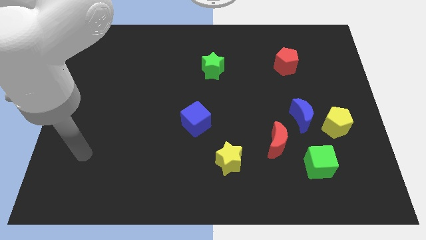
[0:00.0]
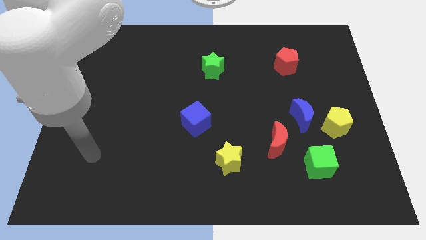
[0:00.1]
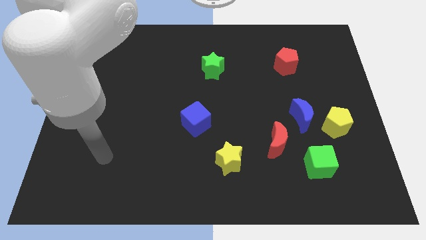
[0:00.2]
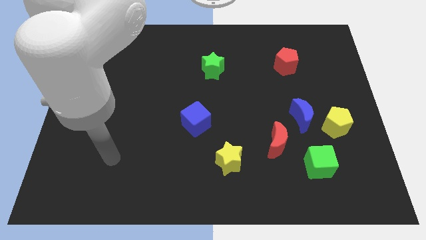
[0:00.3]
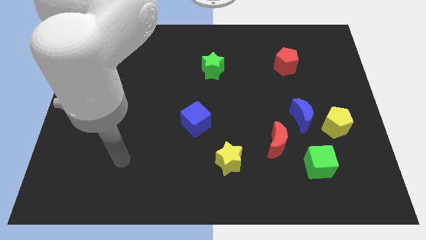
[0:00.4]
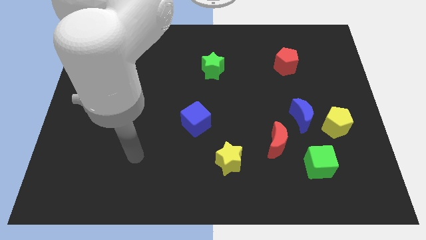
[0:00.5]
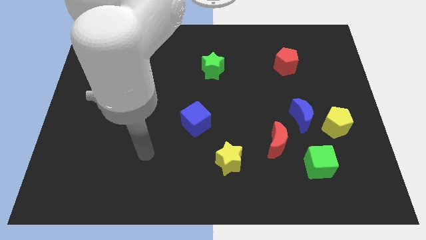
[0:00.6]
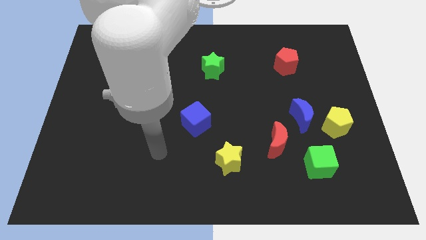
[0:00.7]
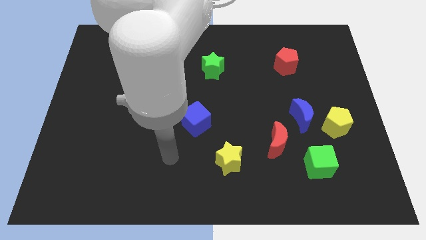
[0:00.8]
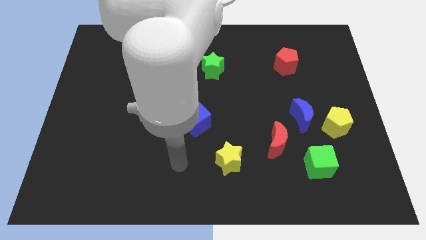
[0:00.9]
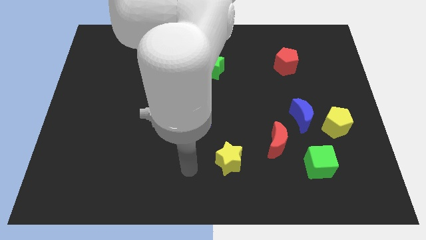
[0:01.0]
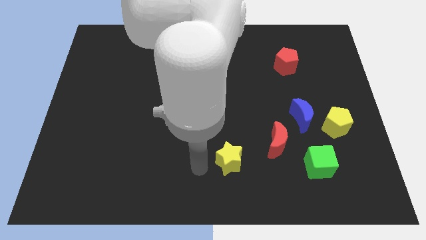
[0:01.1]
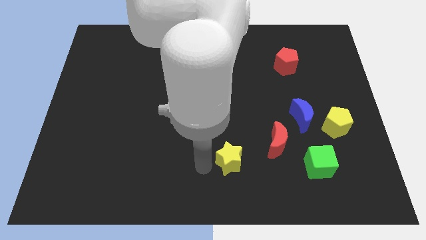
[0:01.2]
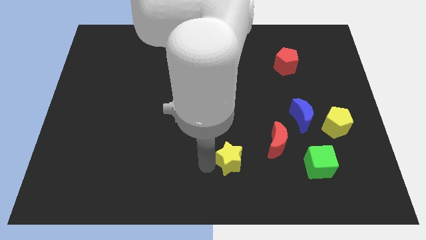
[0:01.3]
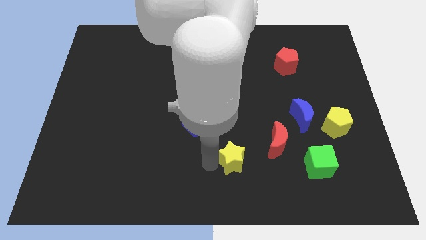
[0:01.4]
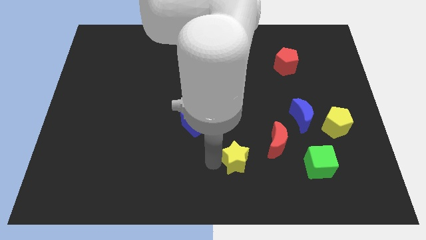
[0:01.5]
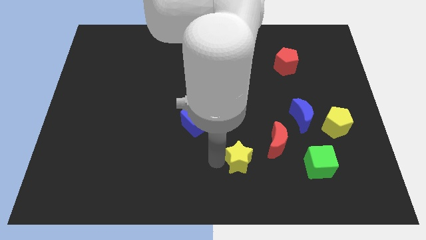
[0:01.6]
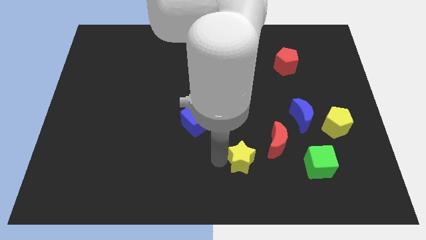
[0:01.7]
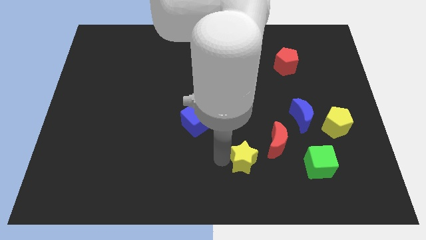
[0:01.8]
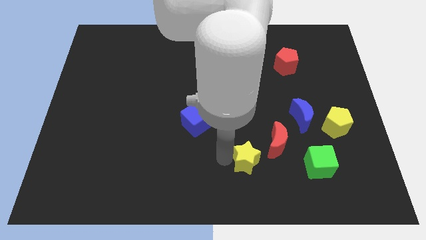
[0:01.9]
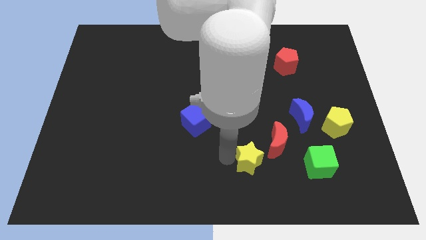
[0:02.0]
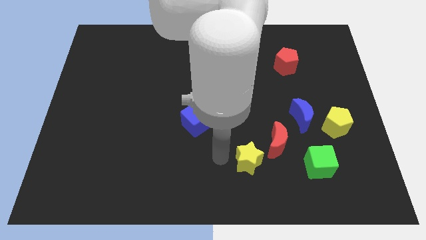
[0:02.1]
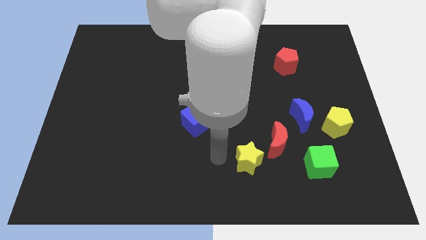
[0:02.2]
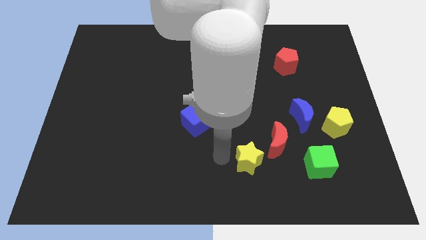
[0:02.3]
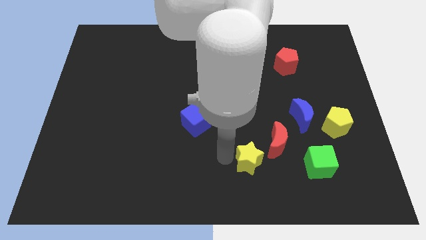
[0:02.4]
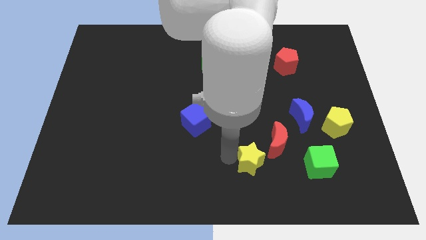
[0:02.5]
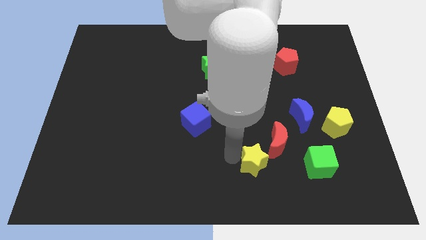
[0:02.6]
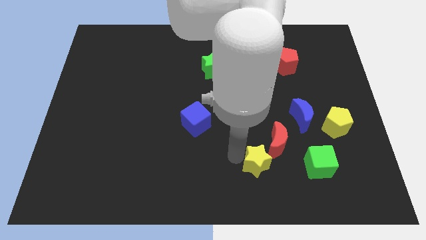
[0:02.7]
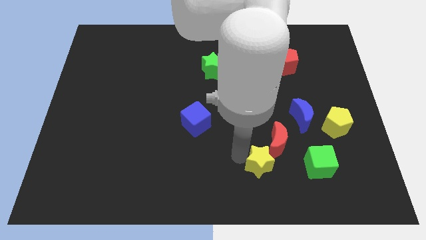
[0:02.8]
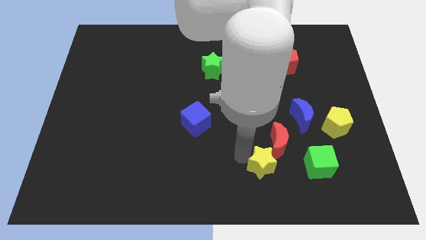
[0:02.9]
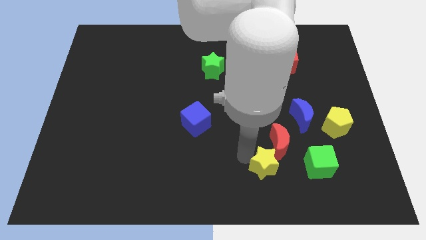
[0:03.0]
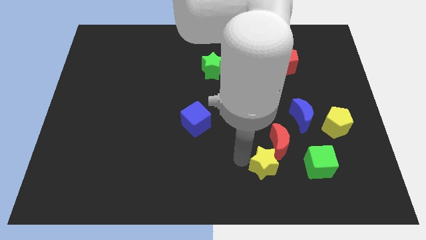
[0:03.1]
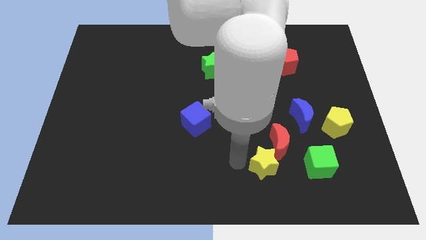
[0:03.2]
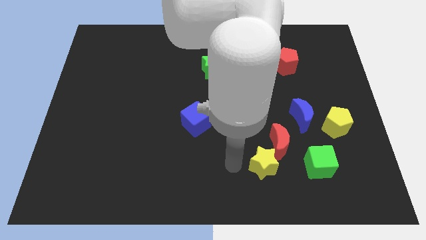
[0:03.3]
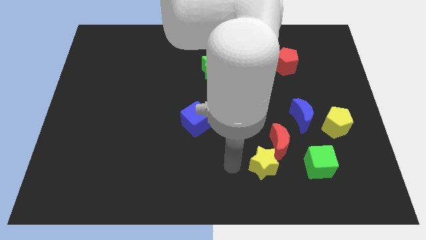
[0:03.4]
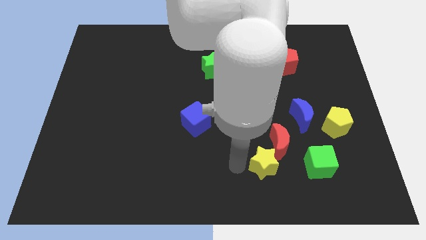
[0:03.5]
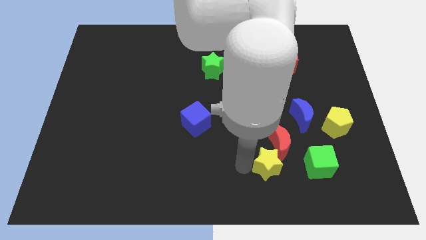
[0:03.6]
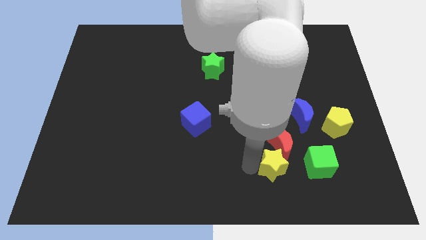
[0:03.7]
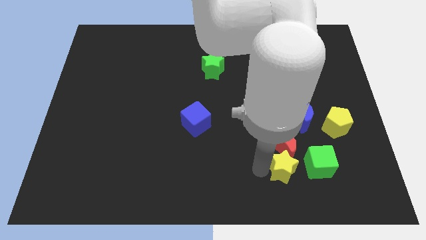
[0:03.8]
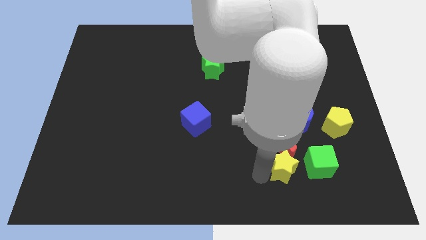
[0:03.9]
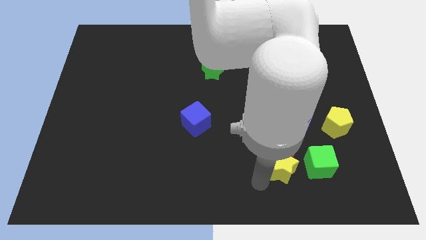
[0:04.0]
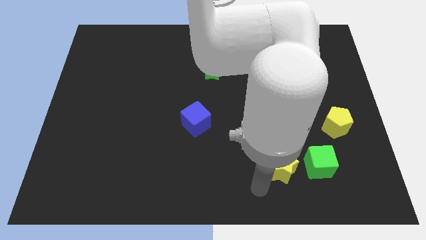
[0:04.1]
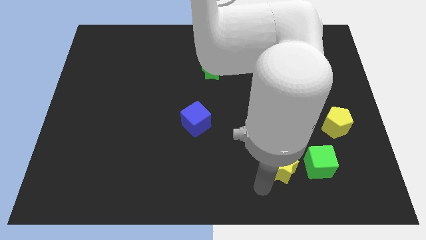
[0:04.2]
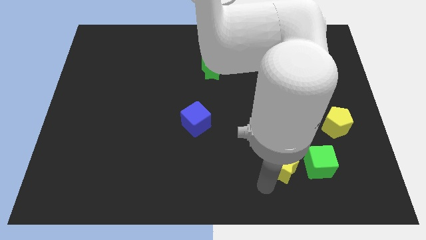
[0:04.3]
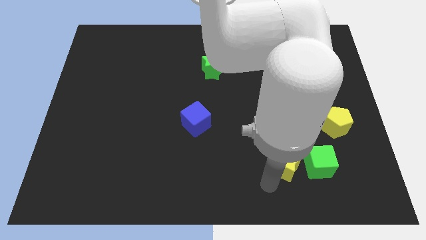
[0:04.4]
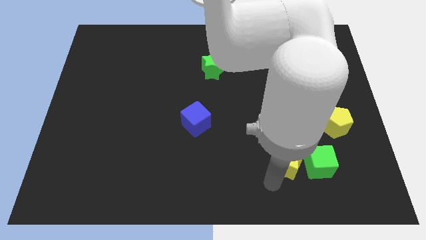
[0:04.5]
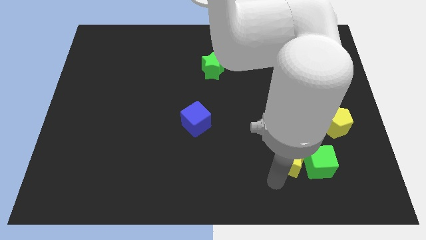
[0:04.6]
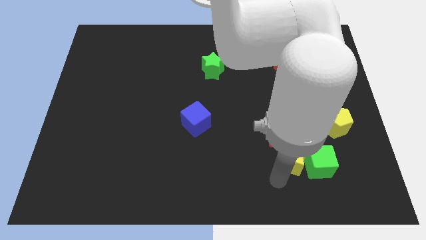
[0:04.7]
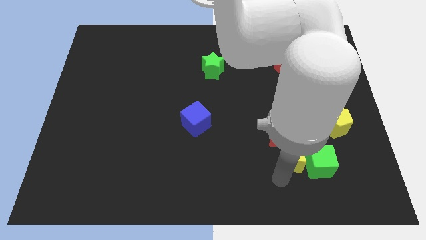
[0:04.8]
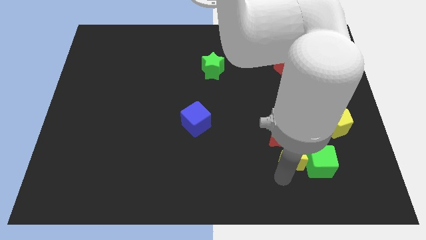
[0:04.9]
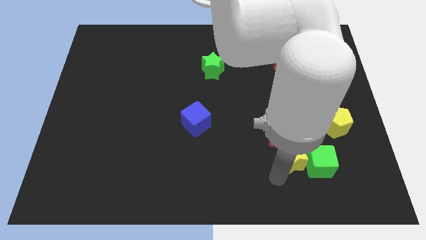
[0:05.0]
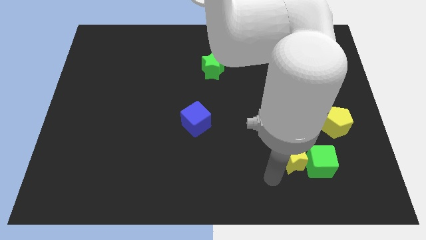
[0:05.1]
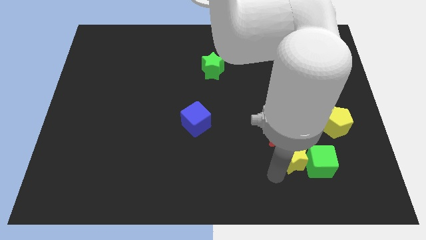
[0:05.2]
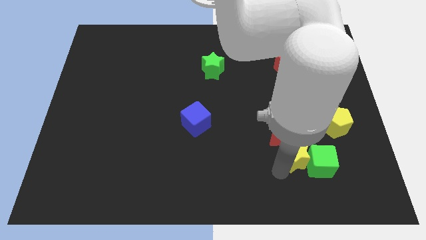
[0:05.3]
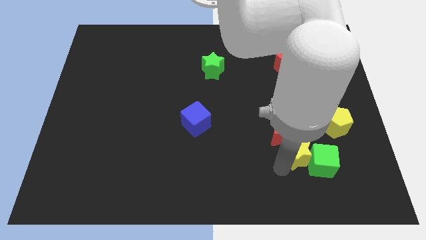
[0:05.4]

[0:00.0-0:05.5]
push the yellow star diagonally down and to the left of the yellow pentagon

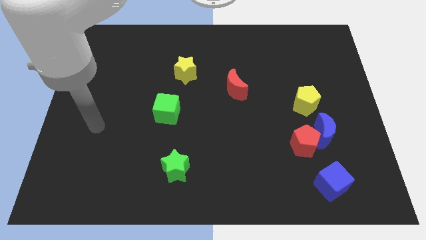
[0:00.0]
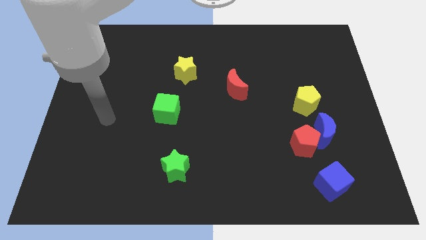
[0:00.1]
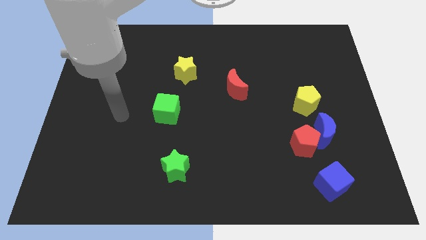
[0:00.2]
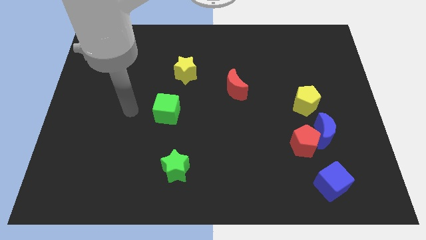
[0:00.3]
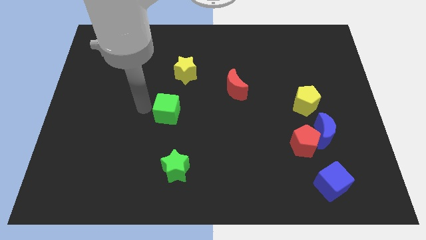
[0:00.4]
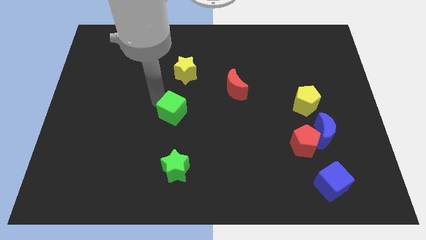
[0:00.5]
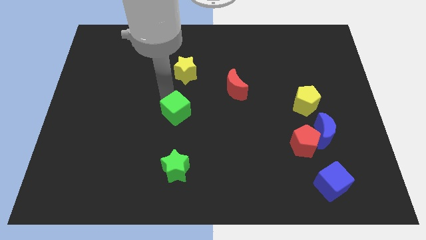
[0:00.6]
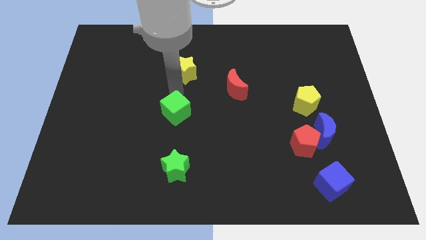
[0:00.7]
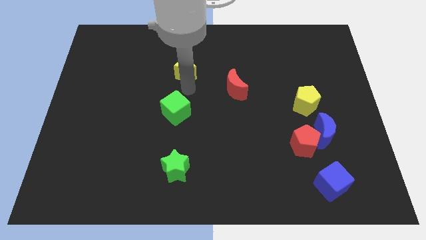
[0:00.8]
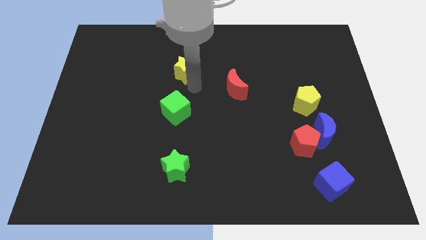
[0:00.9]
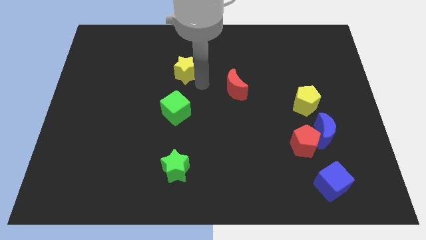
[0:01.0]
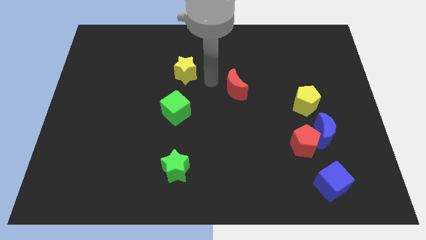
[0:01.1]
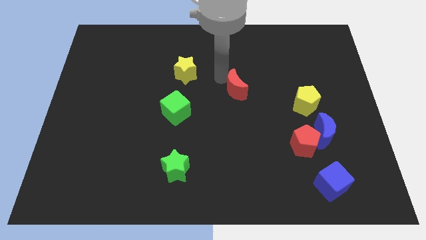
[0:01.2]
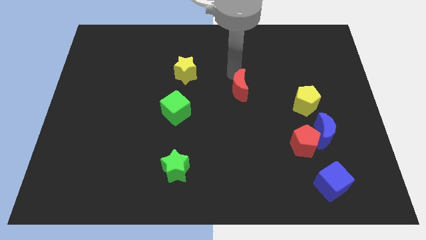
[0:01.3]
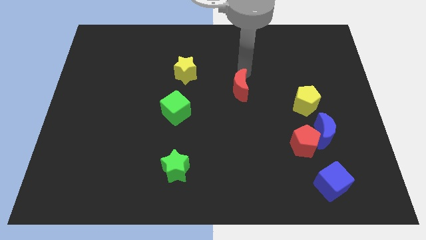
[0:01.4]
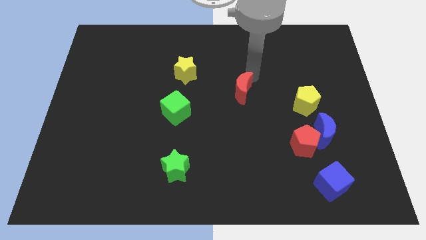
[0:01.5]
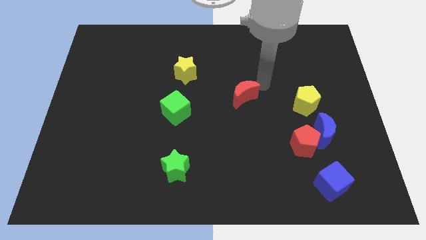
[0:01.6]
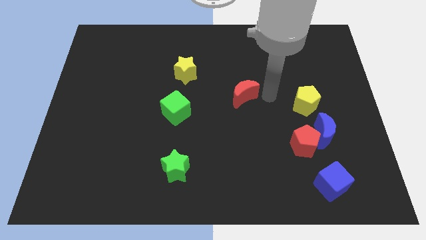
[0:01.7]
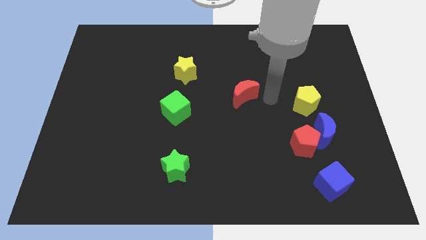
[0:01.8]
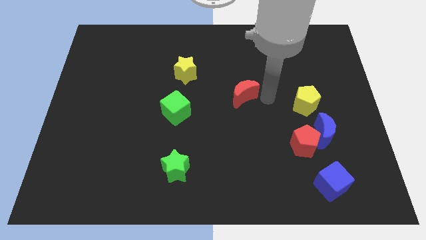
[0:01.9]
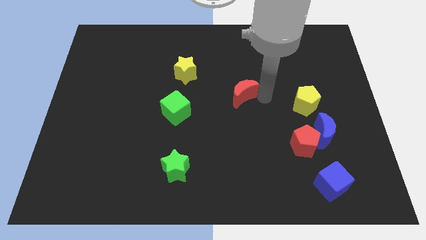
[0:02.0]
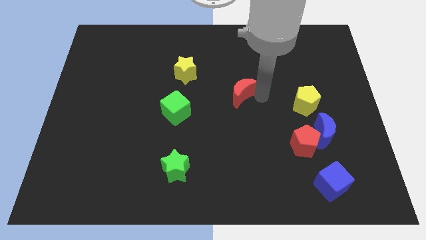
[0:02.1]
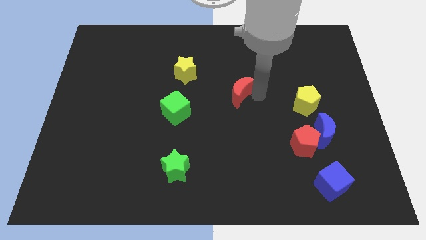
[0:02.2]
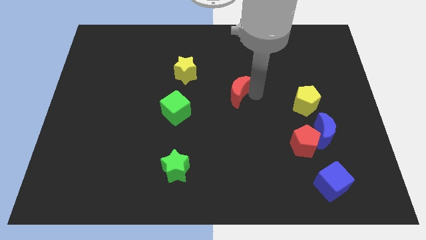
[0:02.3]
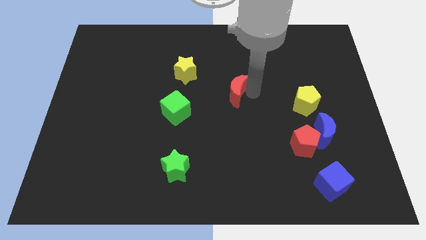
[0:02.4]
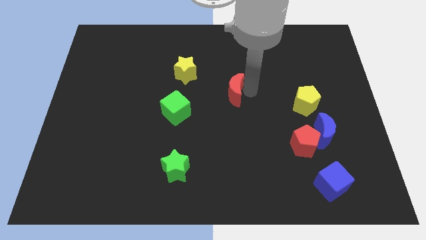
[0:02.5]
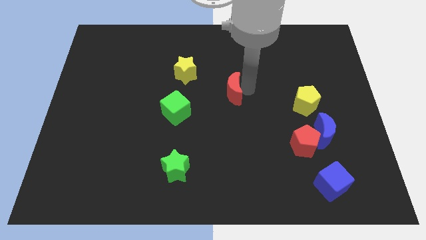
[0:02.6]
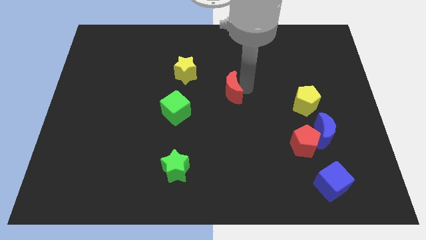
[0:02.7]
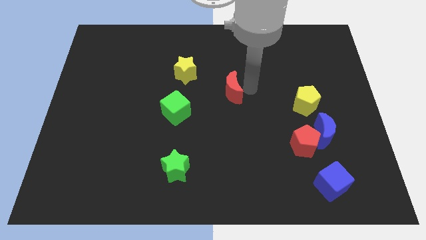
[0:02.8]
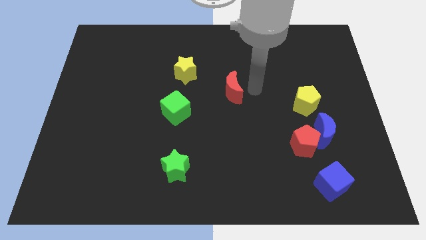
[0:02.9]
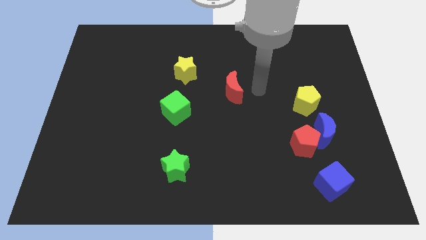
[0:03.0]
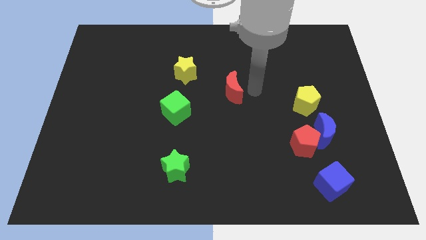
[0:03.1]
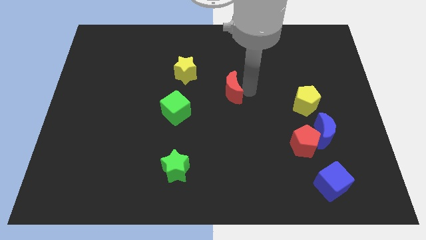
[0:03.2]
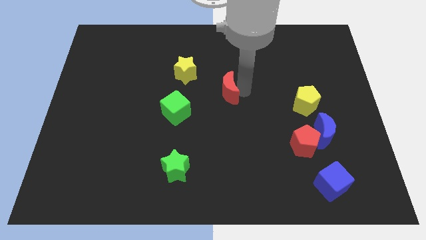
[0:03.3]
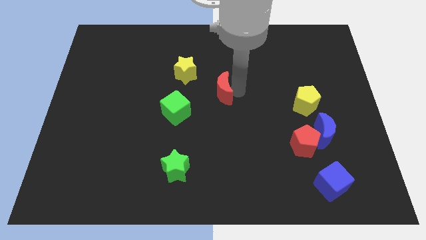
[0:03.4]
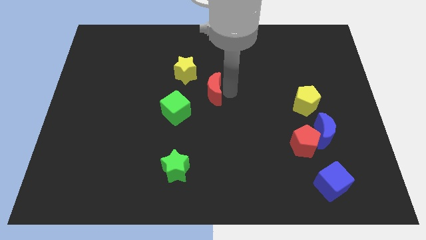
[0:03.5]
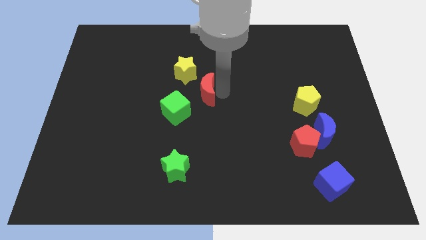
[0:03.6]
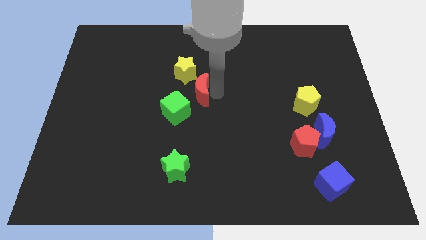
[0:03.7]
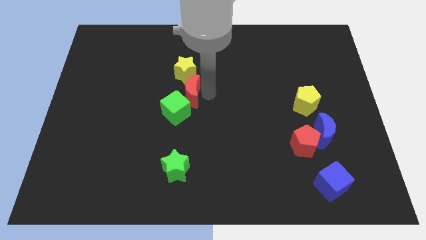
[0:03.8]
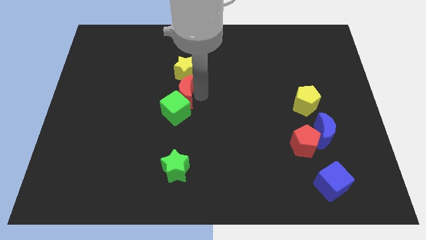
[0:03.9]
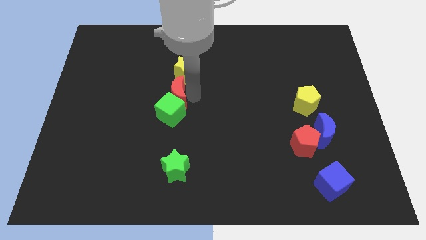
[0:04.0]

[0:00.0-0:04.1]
move the red moon to the bottom left of the yellow star
